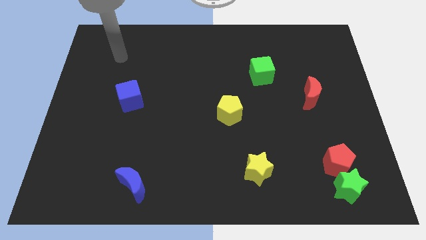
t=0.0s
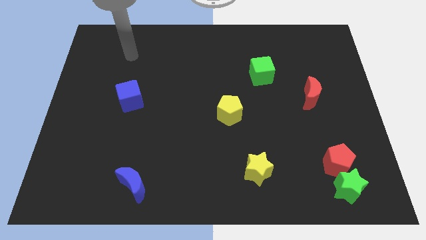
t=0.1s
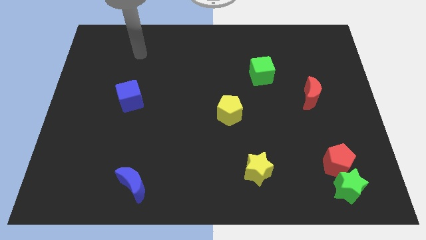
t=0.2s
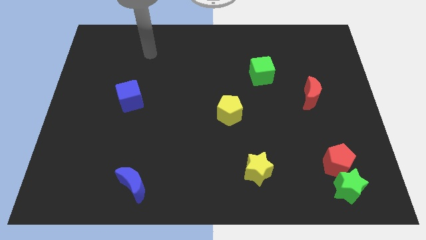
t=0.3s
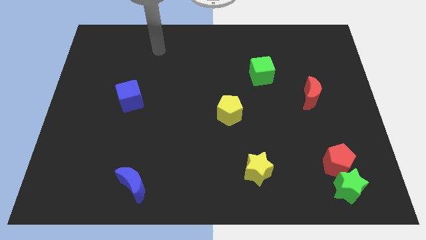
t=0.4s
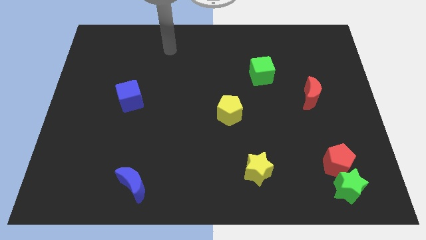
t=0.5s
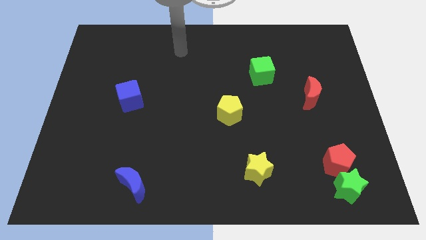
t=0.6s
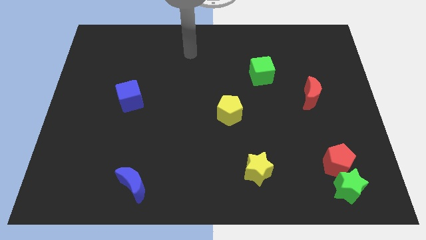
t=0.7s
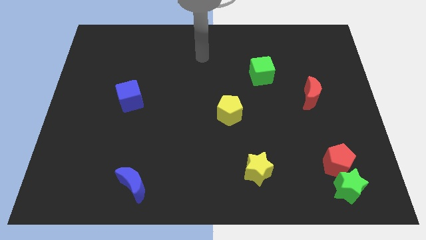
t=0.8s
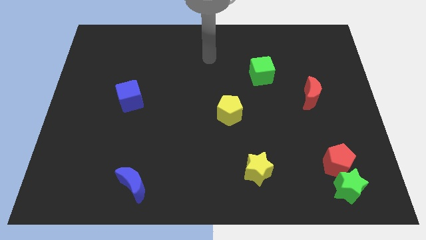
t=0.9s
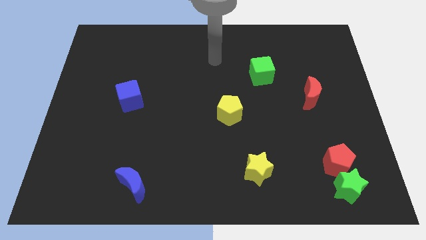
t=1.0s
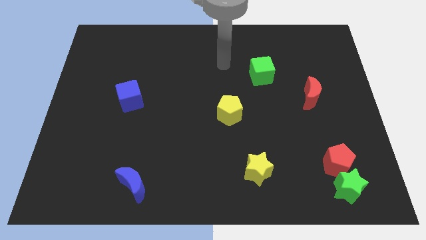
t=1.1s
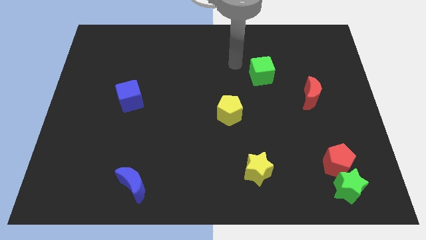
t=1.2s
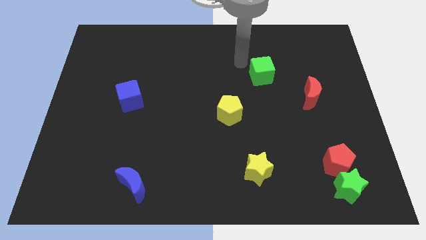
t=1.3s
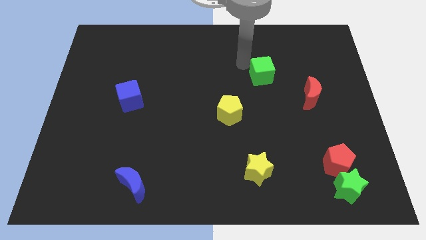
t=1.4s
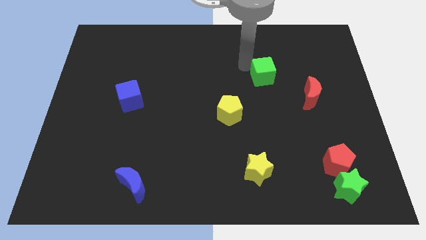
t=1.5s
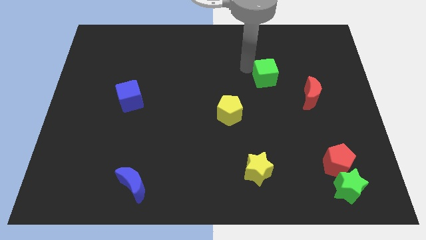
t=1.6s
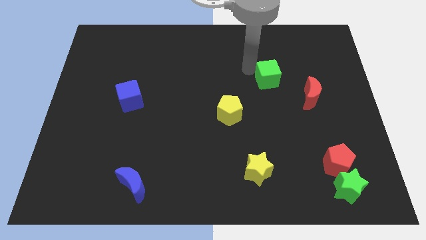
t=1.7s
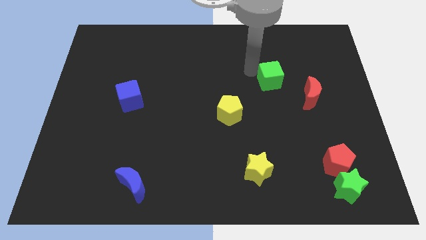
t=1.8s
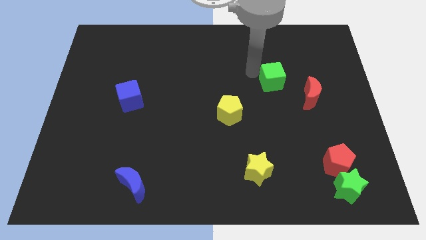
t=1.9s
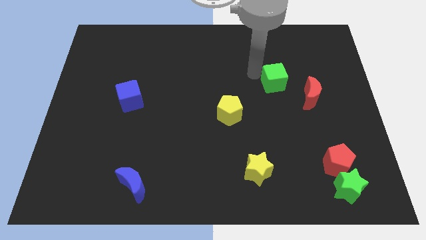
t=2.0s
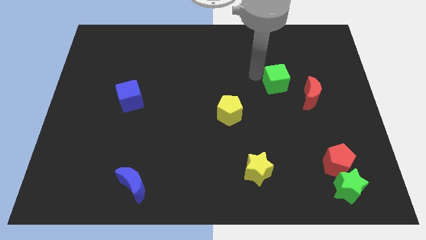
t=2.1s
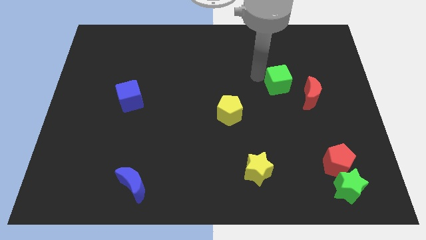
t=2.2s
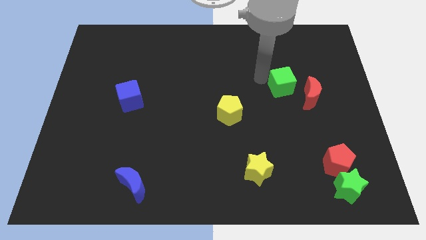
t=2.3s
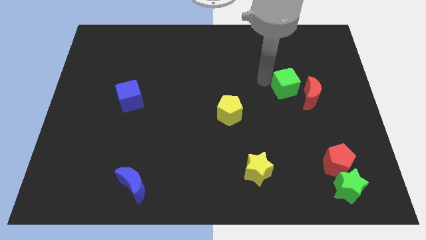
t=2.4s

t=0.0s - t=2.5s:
push the green cube down and to the right a bit

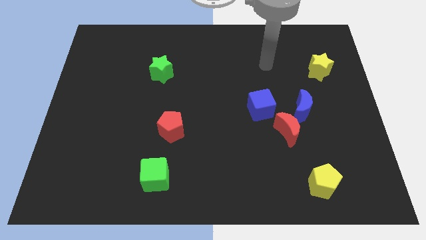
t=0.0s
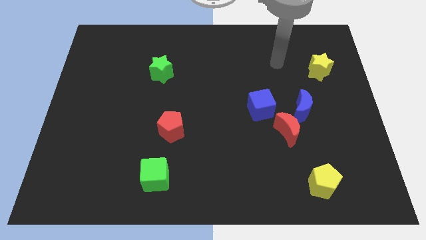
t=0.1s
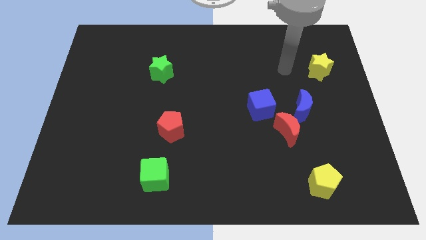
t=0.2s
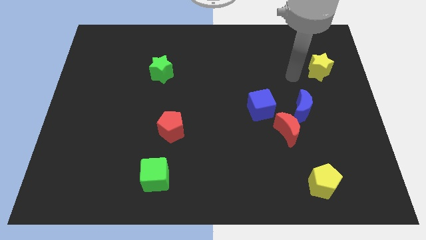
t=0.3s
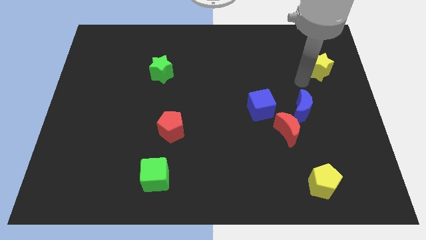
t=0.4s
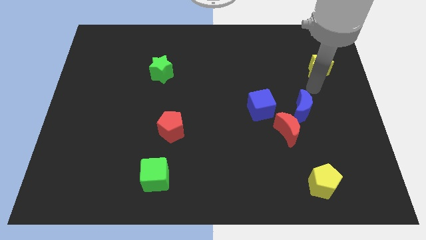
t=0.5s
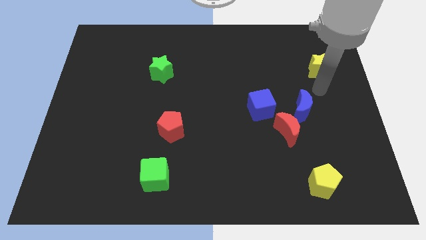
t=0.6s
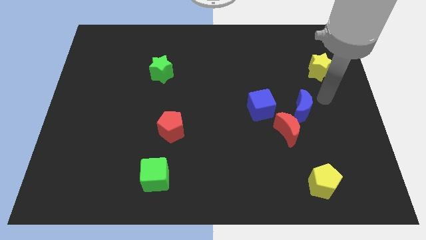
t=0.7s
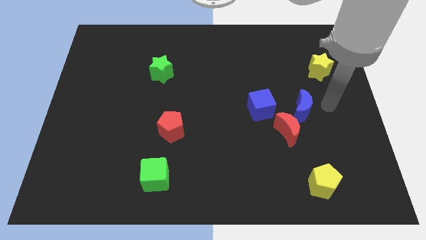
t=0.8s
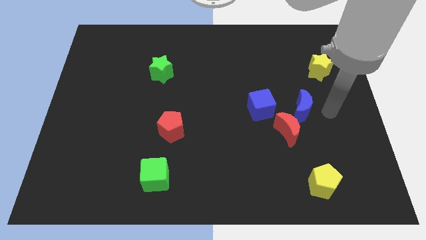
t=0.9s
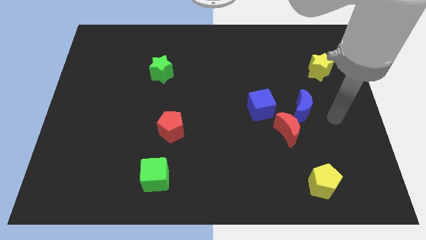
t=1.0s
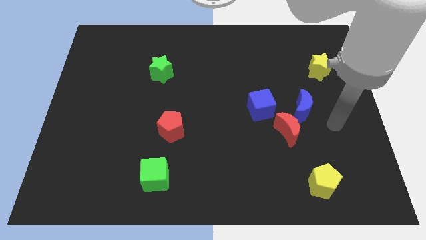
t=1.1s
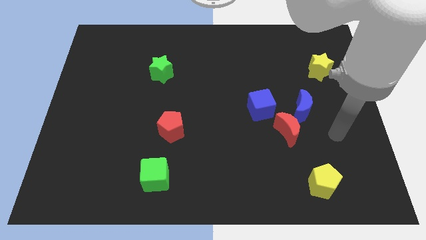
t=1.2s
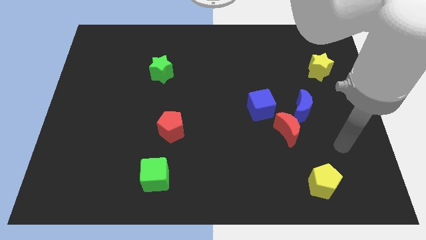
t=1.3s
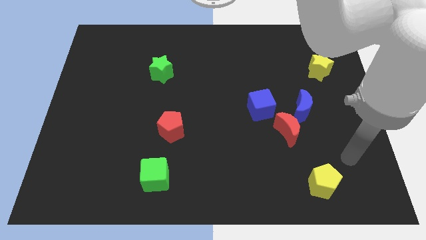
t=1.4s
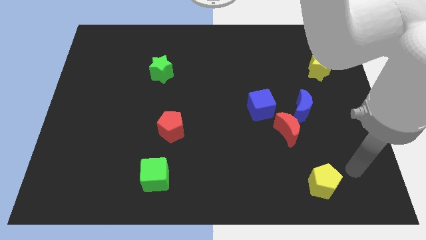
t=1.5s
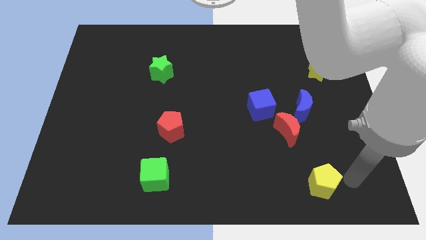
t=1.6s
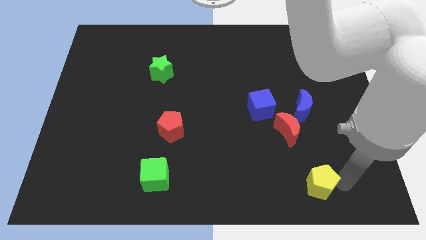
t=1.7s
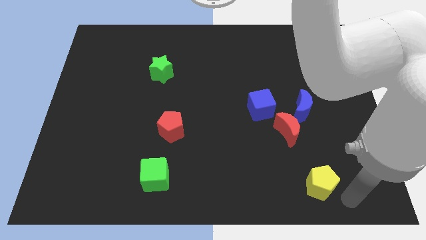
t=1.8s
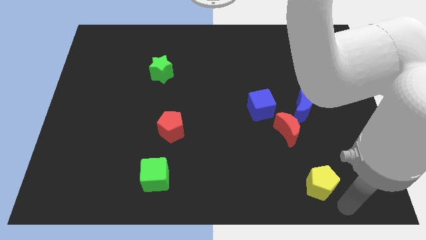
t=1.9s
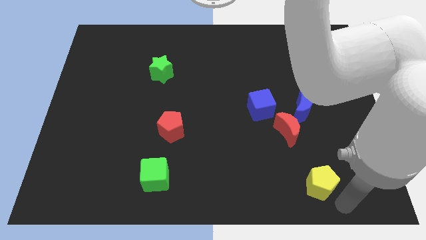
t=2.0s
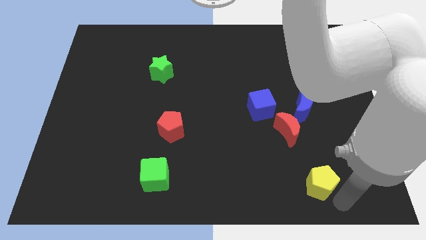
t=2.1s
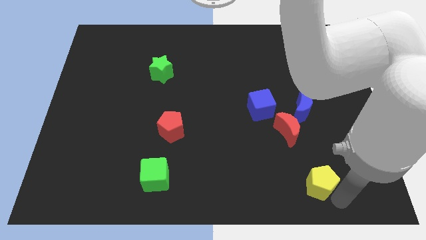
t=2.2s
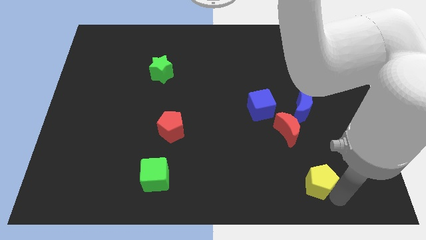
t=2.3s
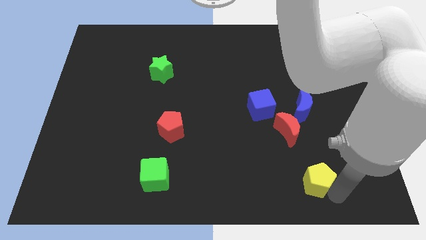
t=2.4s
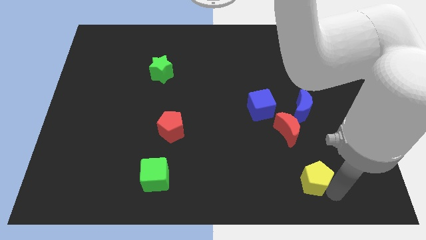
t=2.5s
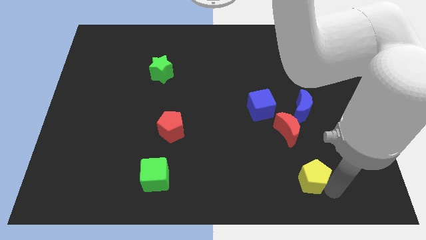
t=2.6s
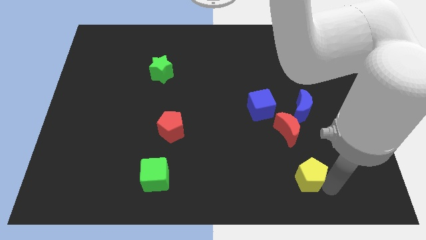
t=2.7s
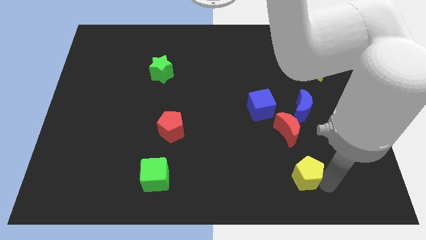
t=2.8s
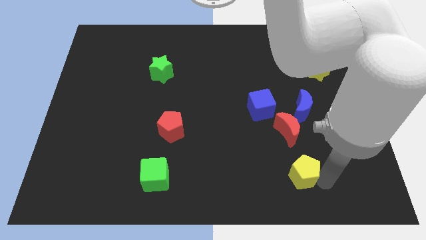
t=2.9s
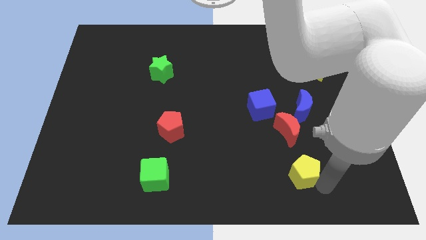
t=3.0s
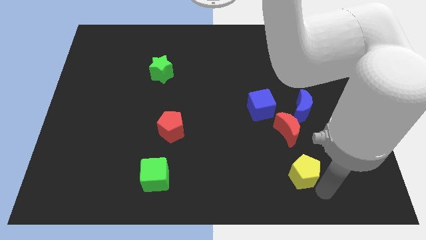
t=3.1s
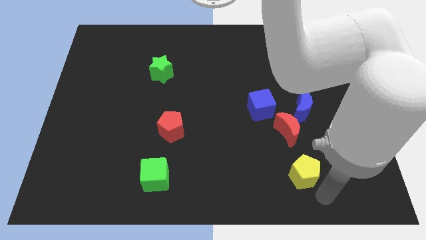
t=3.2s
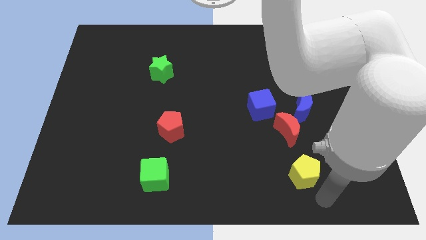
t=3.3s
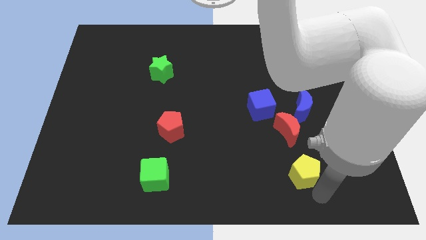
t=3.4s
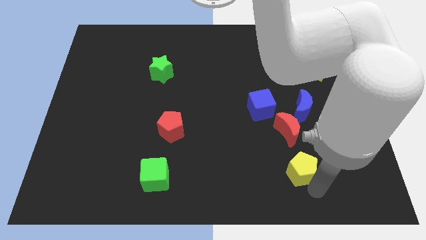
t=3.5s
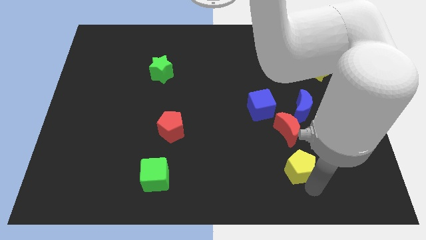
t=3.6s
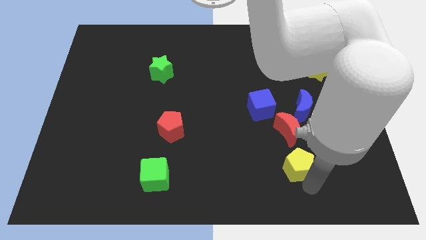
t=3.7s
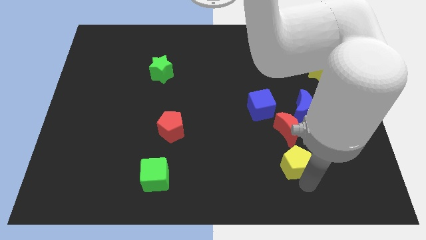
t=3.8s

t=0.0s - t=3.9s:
push the yellow pentagon upwards and left diagonally slightly

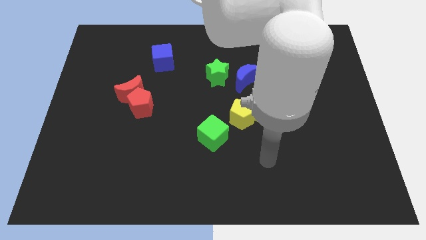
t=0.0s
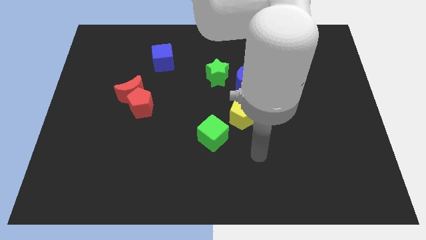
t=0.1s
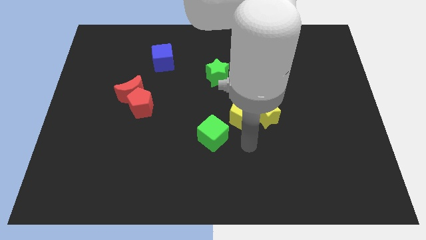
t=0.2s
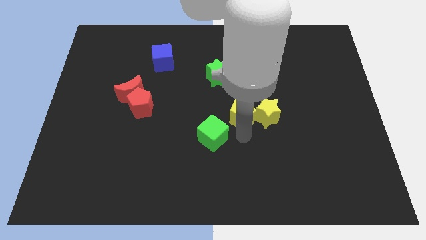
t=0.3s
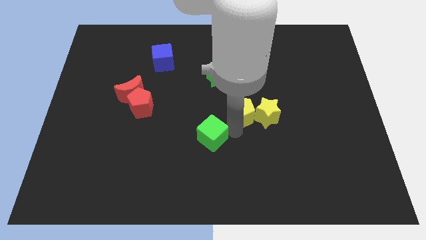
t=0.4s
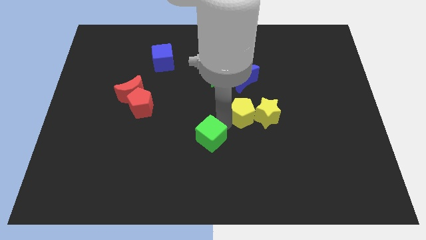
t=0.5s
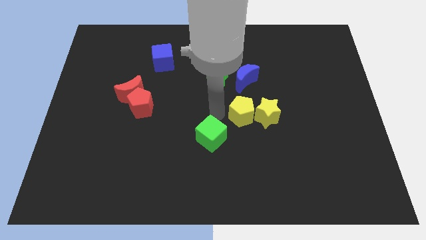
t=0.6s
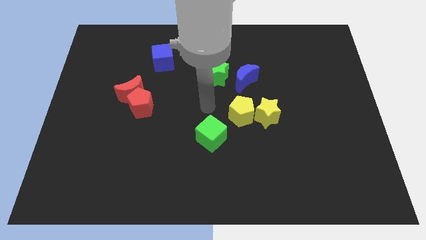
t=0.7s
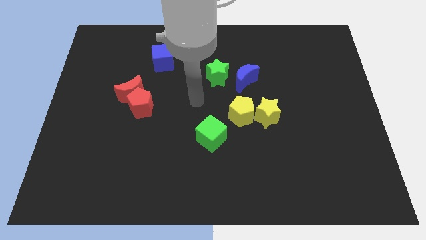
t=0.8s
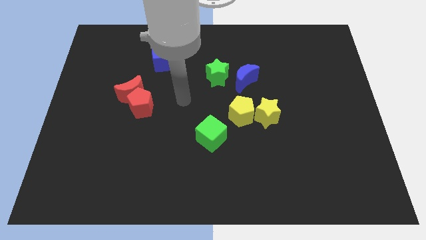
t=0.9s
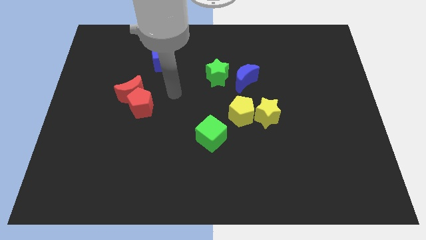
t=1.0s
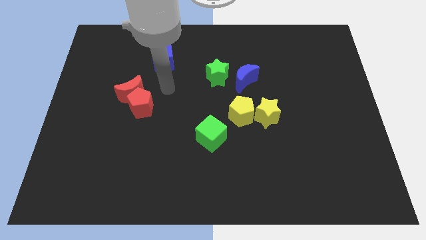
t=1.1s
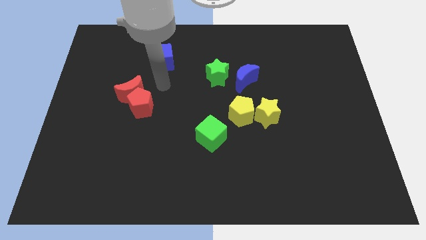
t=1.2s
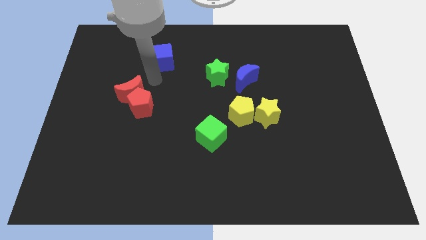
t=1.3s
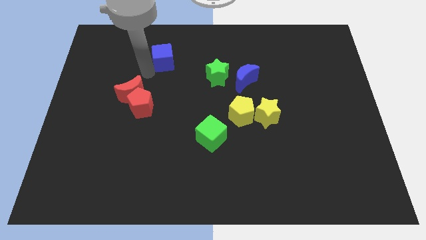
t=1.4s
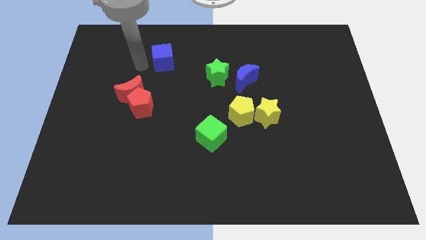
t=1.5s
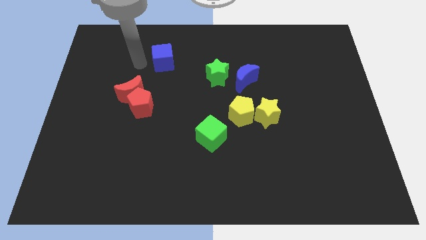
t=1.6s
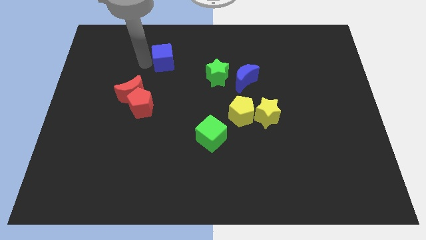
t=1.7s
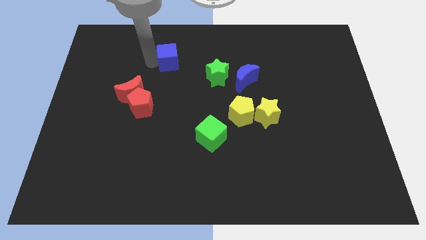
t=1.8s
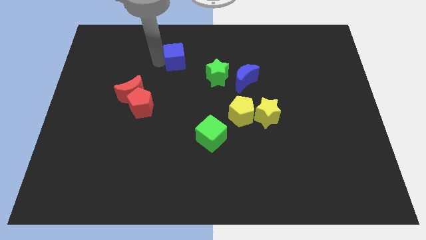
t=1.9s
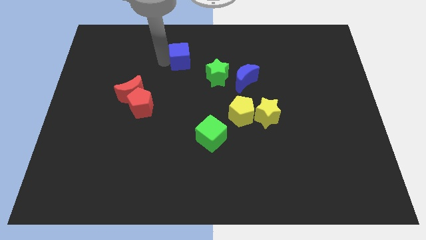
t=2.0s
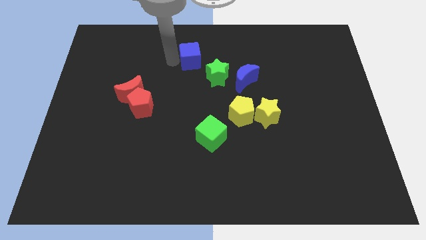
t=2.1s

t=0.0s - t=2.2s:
slightly slide the blue cube right
